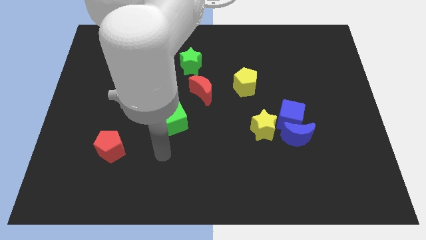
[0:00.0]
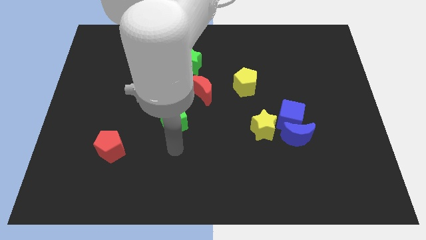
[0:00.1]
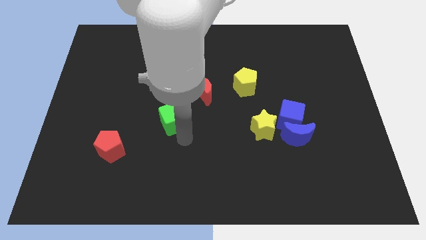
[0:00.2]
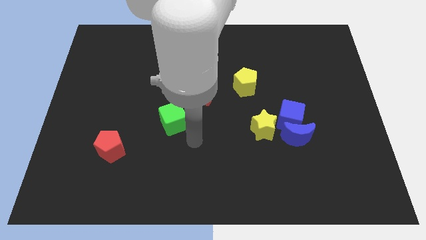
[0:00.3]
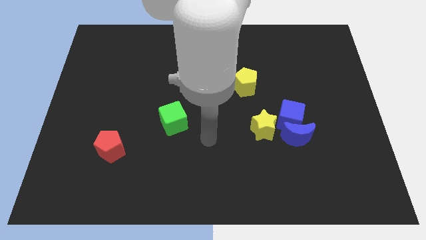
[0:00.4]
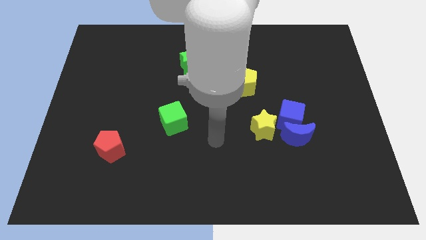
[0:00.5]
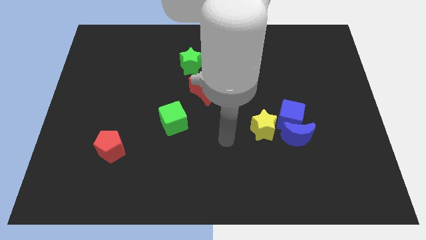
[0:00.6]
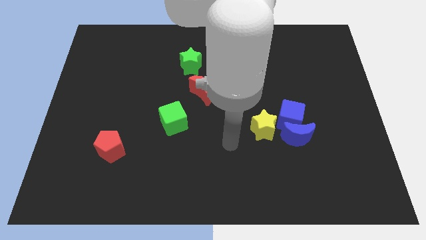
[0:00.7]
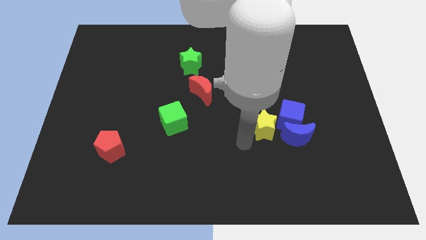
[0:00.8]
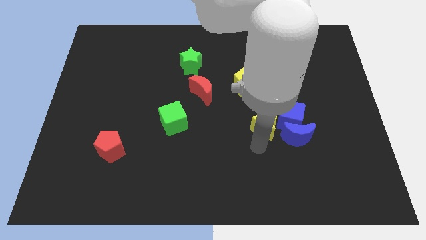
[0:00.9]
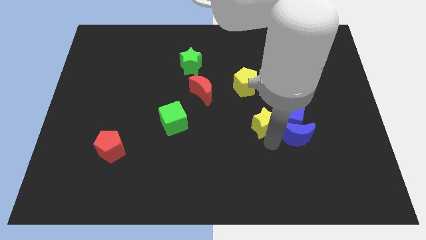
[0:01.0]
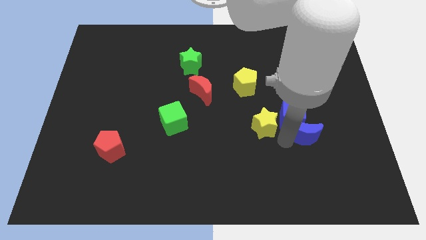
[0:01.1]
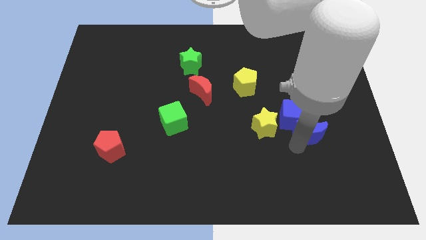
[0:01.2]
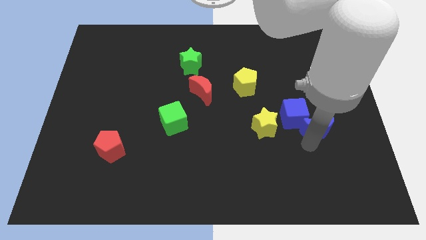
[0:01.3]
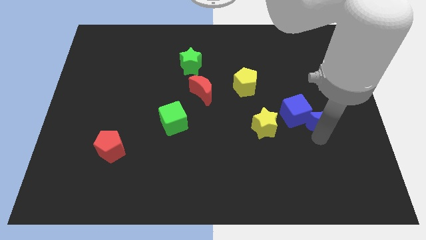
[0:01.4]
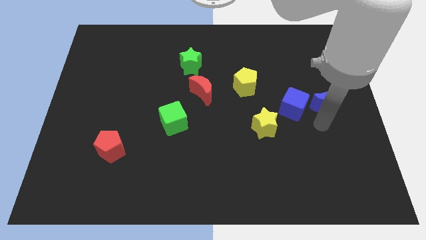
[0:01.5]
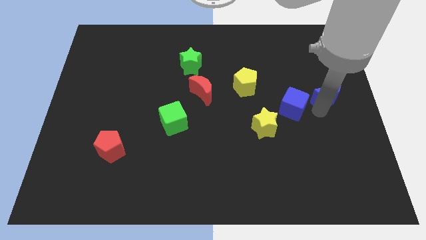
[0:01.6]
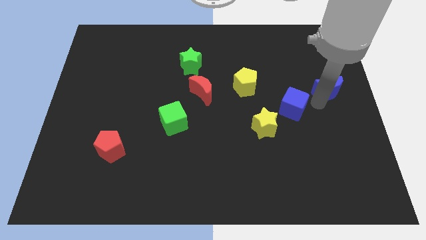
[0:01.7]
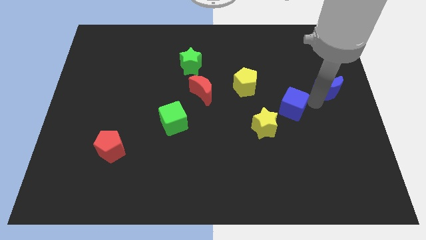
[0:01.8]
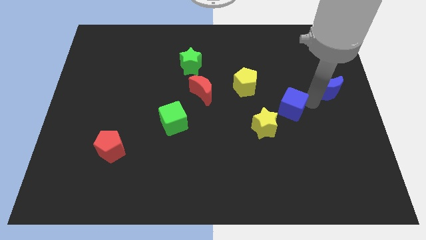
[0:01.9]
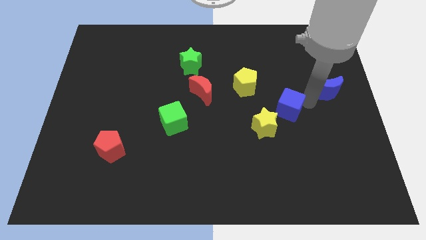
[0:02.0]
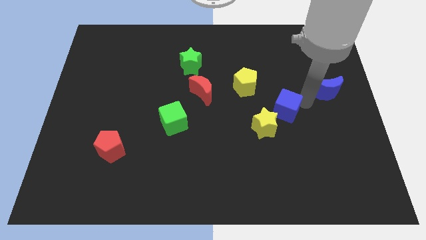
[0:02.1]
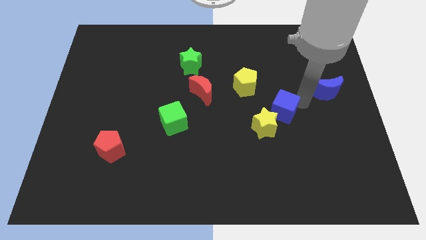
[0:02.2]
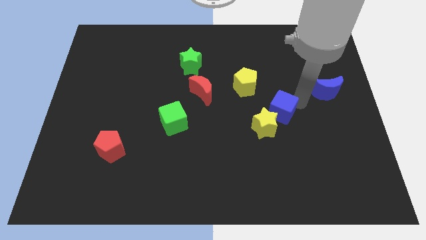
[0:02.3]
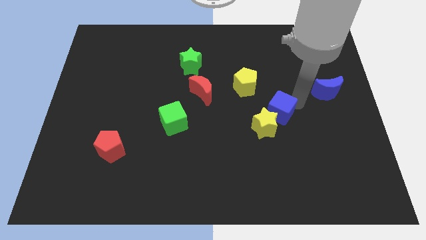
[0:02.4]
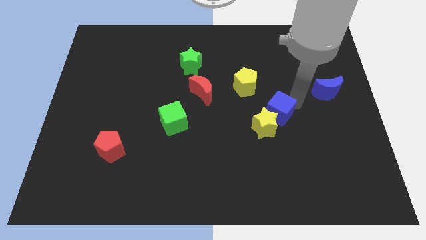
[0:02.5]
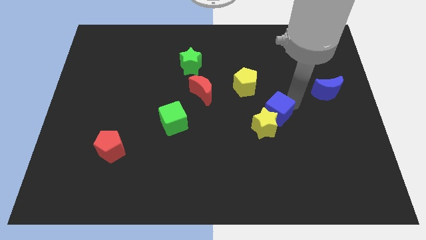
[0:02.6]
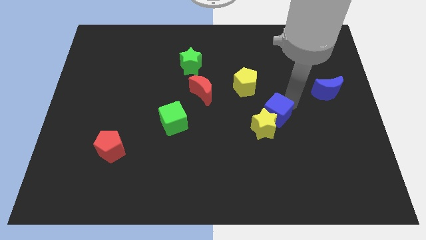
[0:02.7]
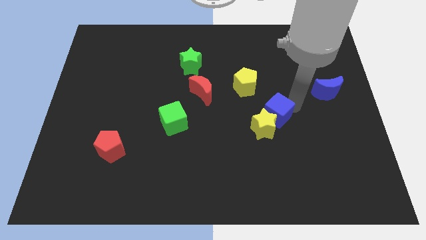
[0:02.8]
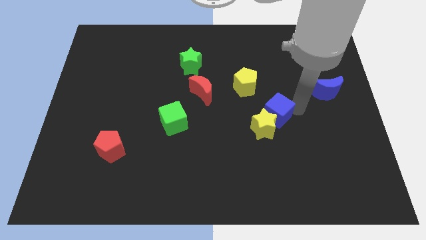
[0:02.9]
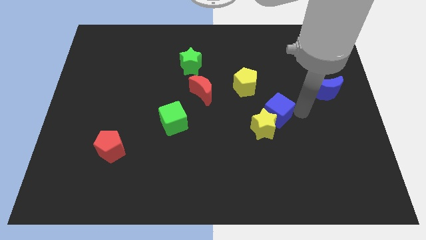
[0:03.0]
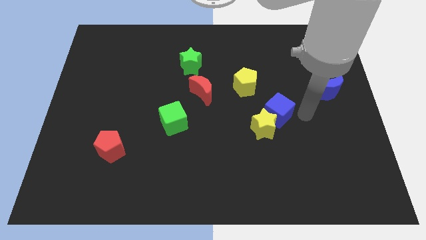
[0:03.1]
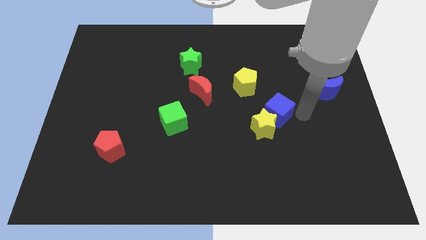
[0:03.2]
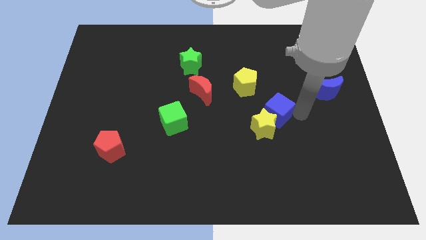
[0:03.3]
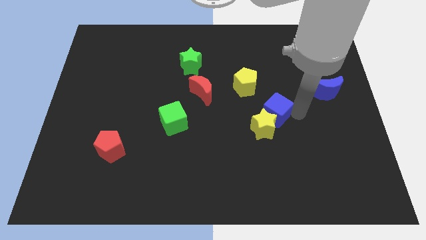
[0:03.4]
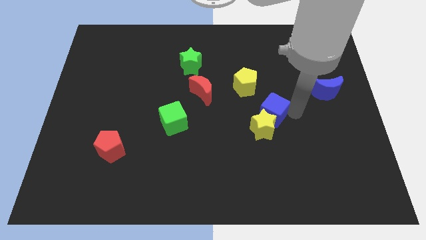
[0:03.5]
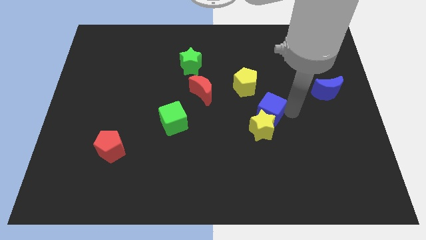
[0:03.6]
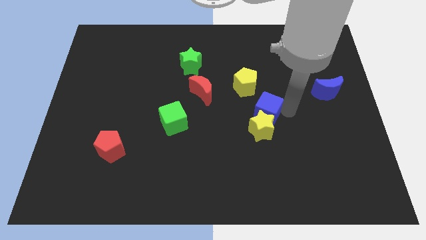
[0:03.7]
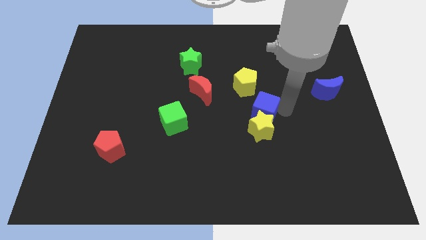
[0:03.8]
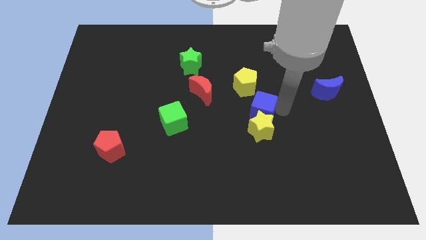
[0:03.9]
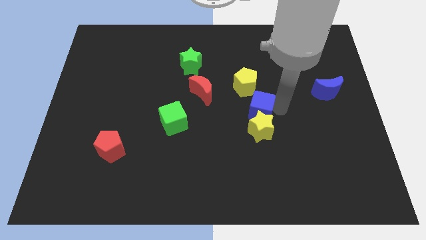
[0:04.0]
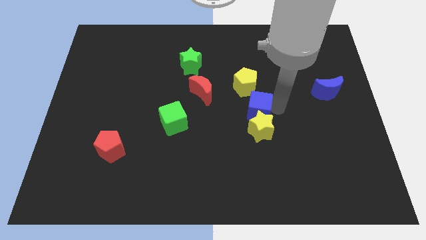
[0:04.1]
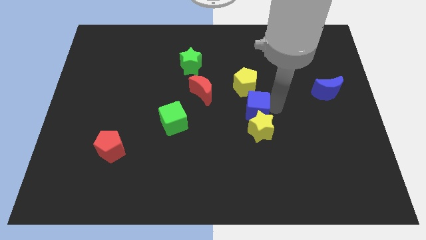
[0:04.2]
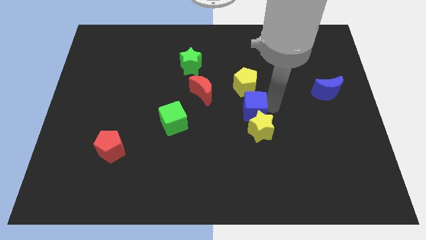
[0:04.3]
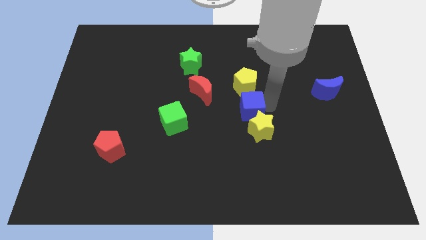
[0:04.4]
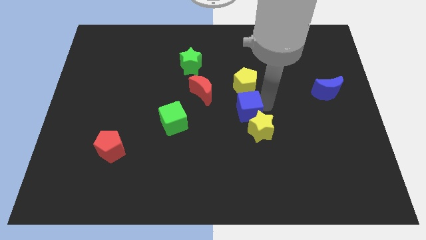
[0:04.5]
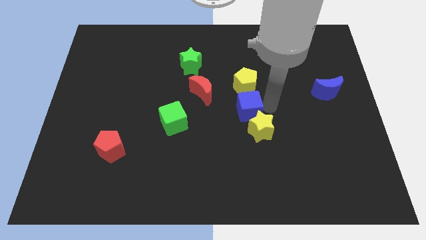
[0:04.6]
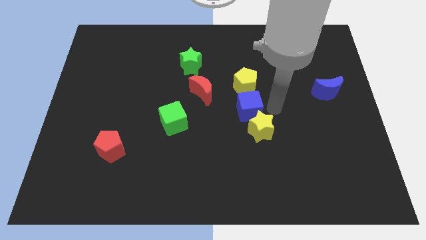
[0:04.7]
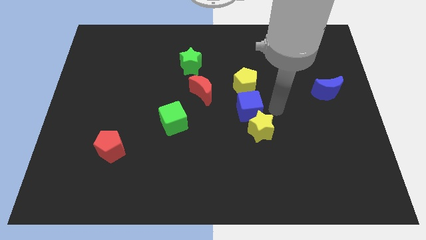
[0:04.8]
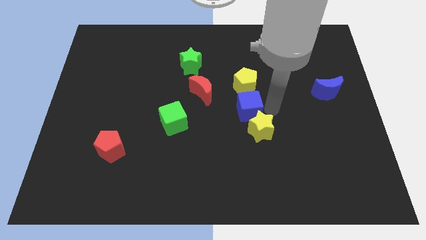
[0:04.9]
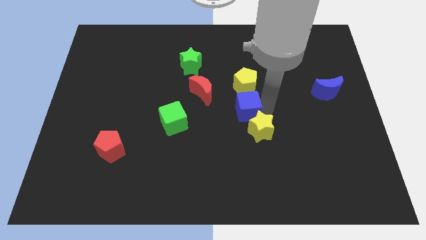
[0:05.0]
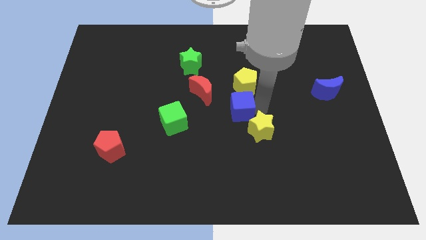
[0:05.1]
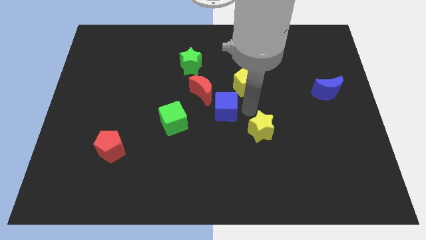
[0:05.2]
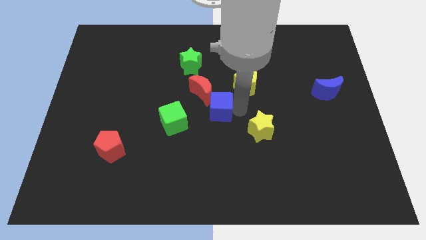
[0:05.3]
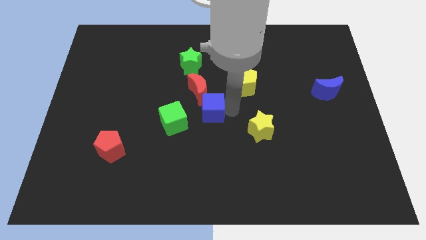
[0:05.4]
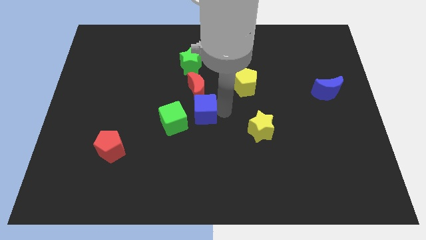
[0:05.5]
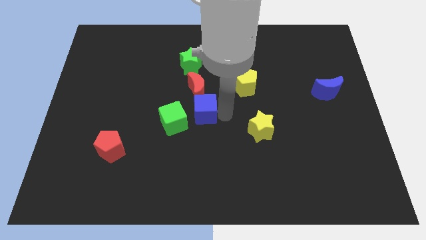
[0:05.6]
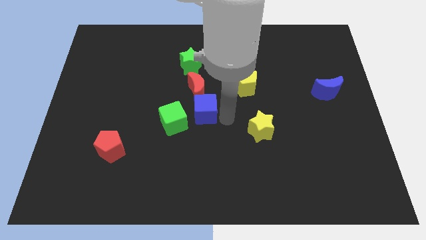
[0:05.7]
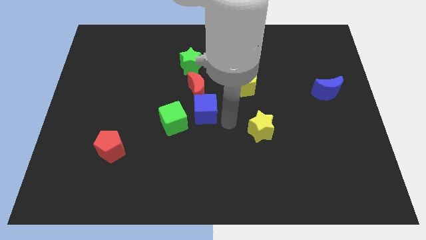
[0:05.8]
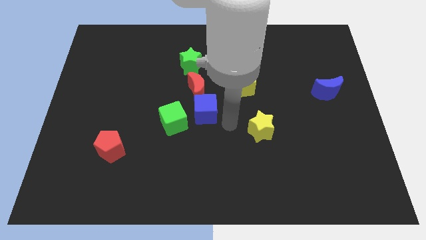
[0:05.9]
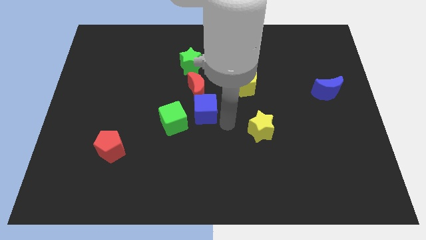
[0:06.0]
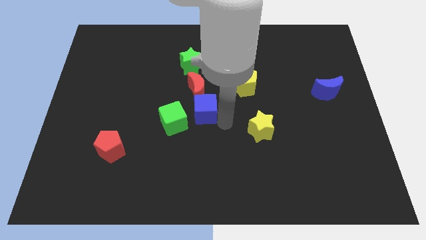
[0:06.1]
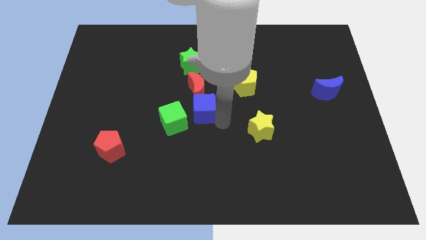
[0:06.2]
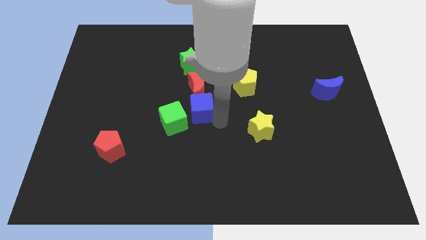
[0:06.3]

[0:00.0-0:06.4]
push the blue cube left

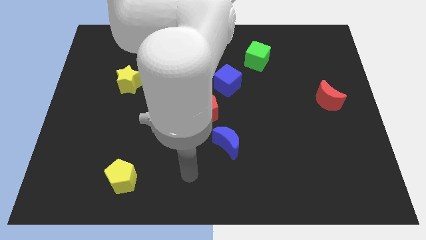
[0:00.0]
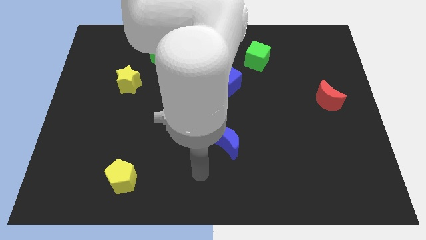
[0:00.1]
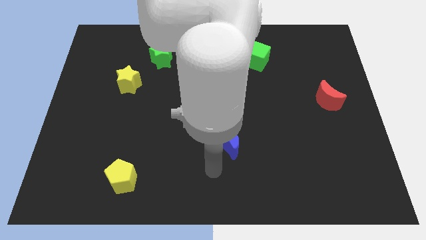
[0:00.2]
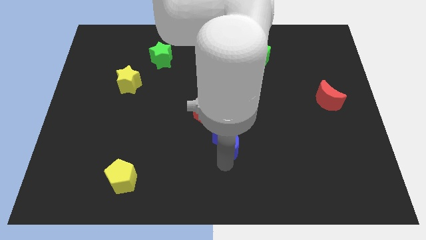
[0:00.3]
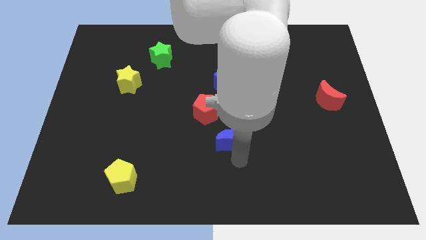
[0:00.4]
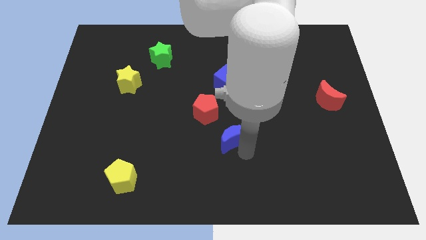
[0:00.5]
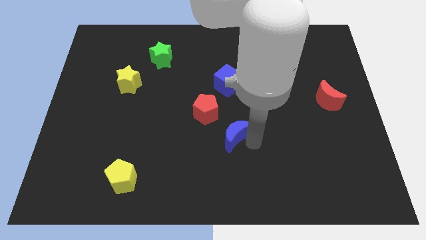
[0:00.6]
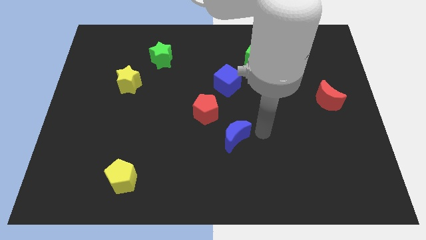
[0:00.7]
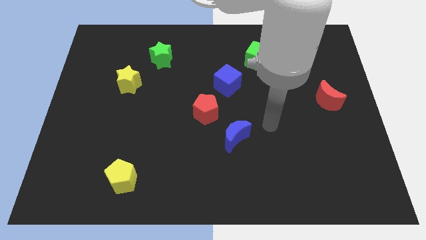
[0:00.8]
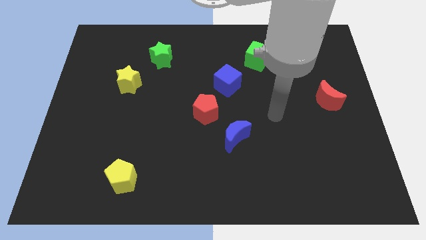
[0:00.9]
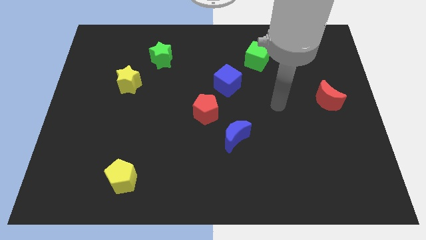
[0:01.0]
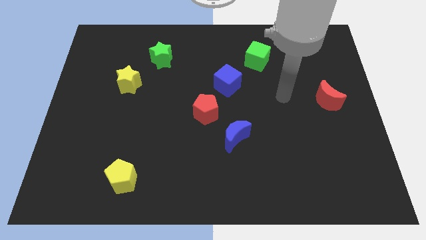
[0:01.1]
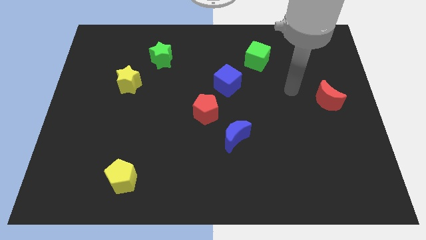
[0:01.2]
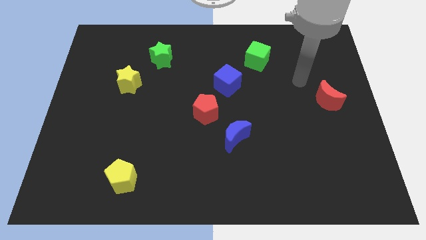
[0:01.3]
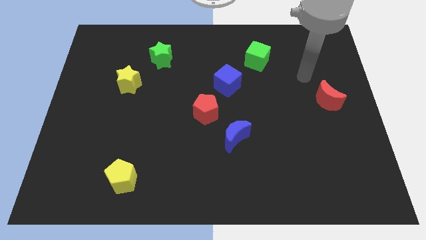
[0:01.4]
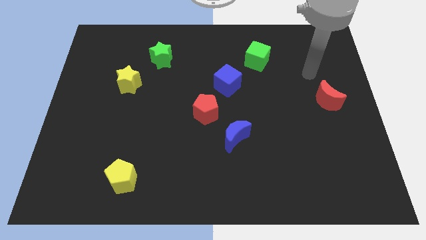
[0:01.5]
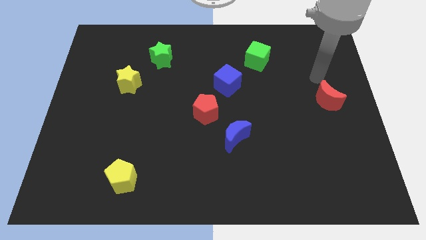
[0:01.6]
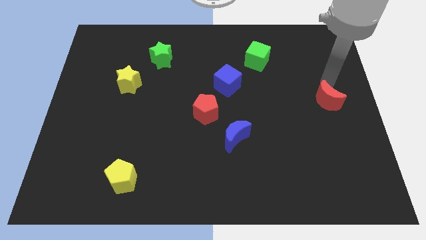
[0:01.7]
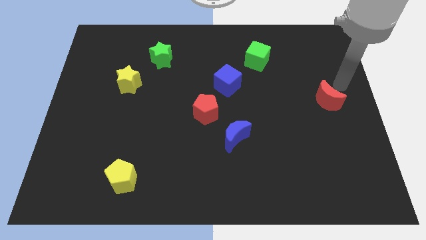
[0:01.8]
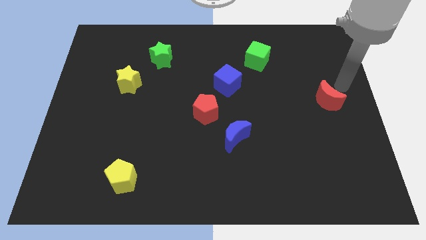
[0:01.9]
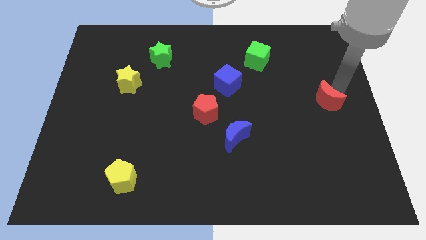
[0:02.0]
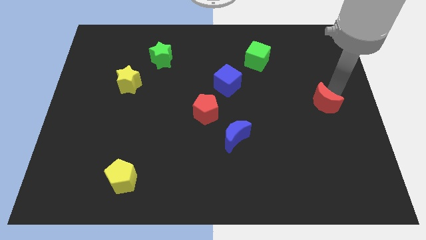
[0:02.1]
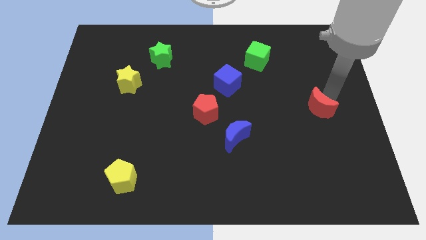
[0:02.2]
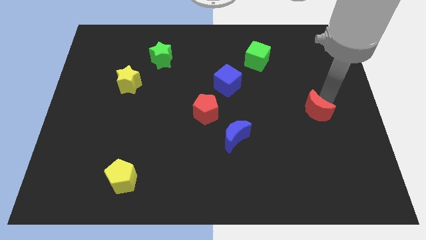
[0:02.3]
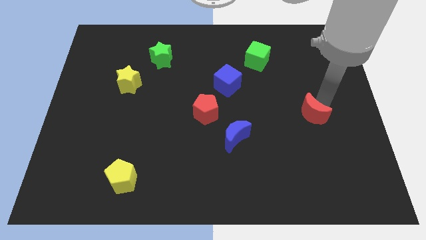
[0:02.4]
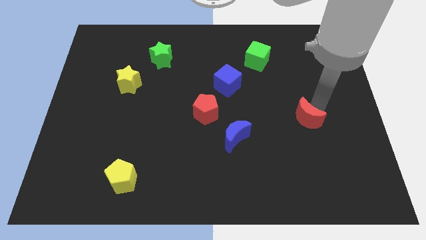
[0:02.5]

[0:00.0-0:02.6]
slightly move the red moon down and then left
